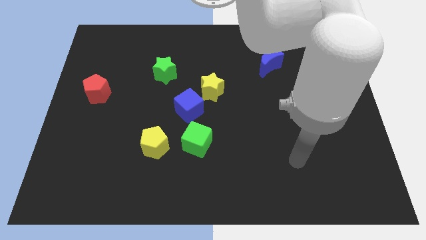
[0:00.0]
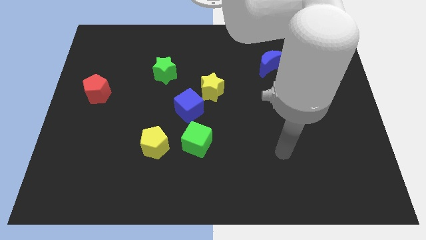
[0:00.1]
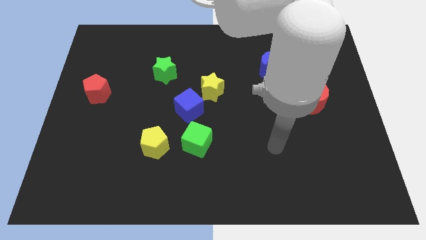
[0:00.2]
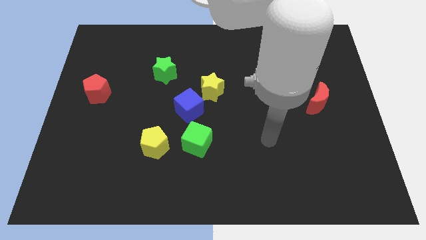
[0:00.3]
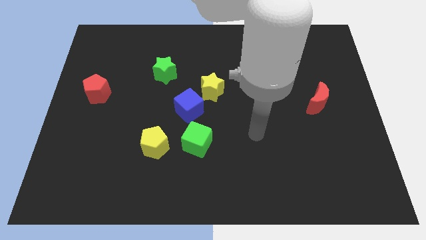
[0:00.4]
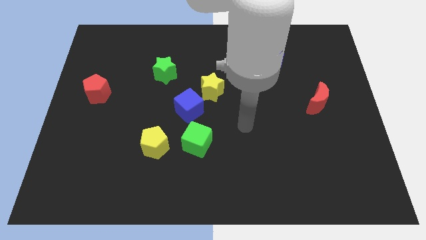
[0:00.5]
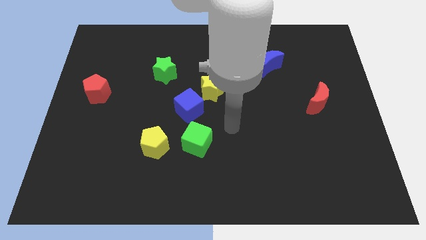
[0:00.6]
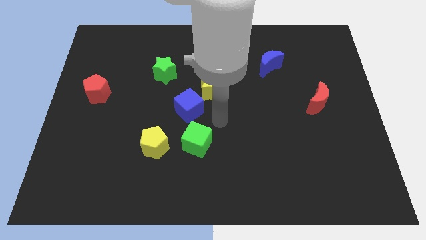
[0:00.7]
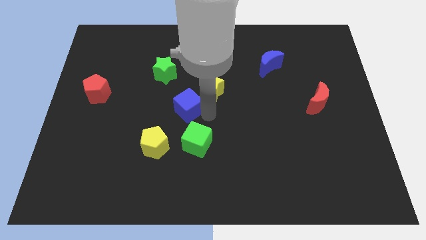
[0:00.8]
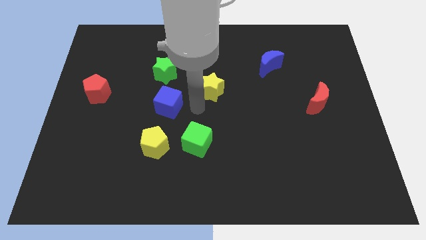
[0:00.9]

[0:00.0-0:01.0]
separate the yellow star from the blue cube

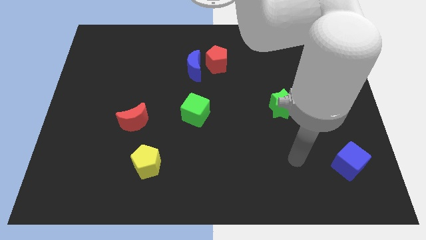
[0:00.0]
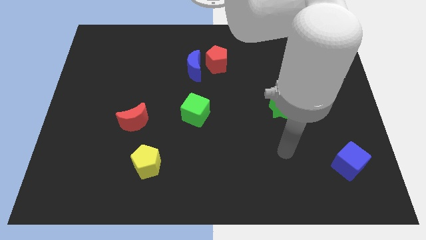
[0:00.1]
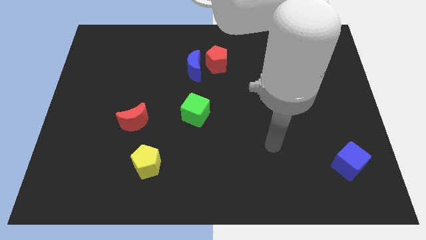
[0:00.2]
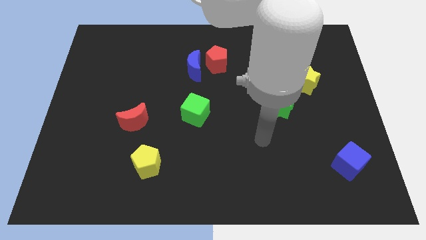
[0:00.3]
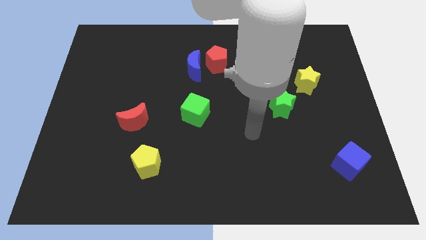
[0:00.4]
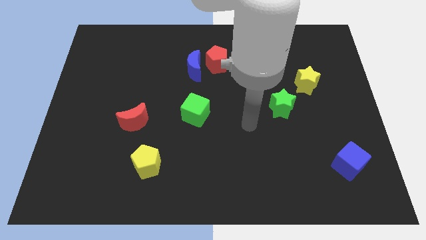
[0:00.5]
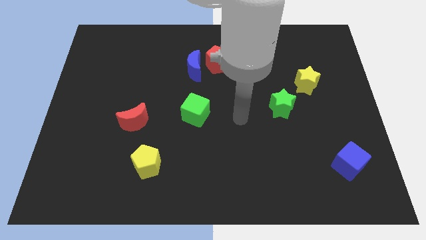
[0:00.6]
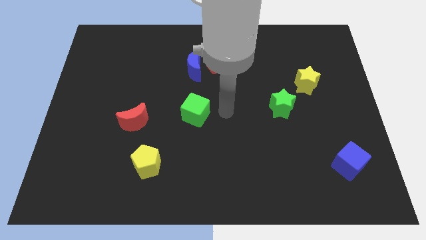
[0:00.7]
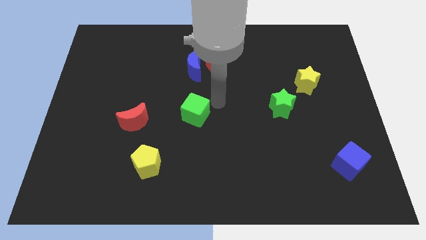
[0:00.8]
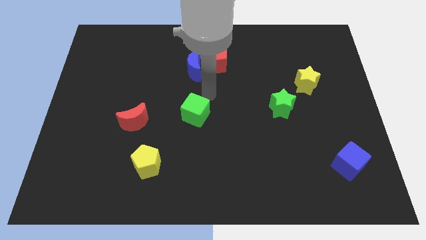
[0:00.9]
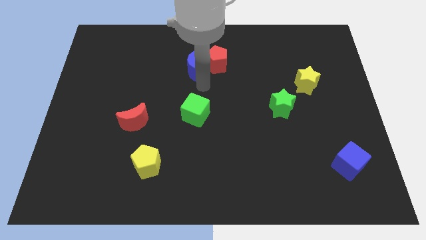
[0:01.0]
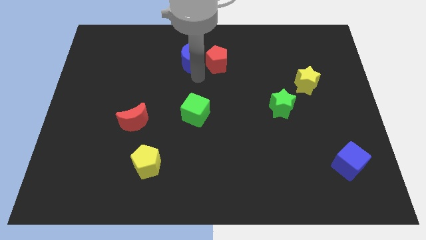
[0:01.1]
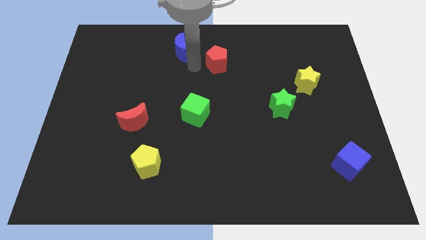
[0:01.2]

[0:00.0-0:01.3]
move the red pentagon away from the blue moon

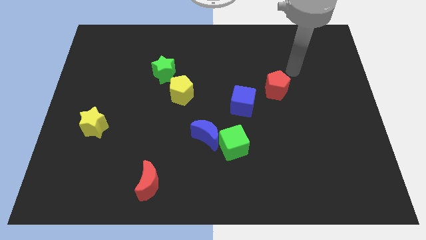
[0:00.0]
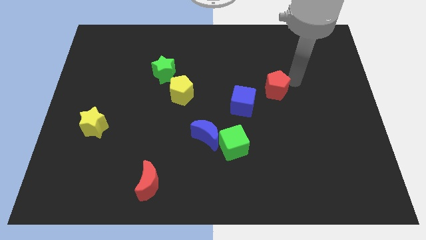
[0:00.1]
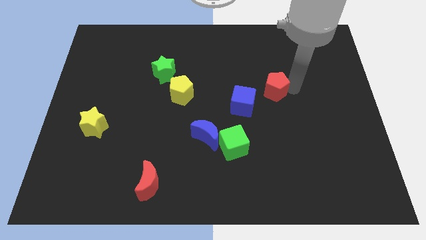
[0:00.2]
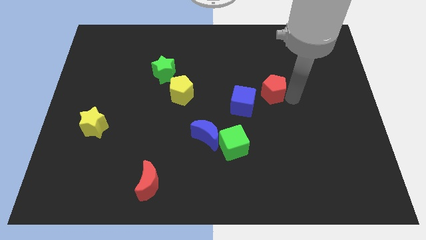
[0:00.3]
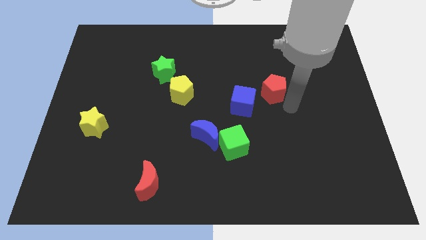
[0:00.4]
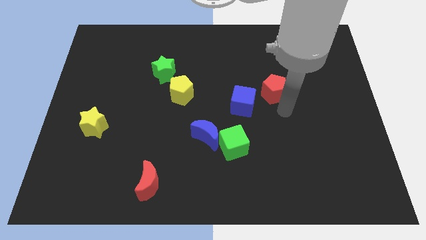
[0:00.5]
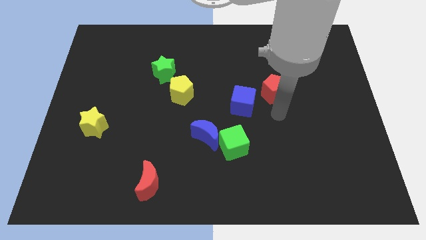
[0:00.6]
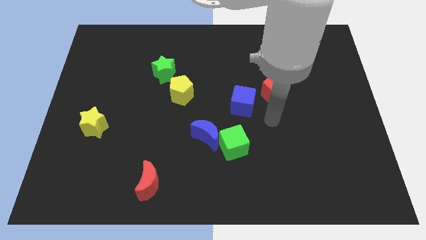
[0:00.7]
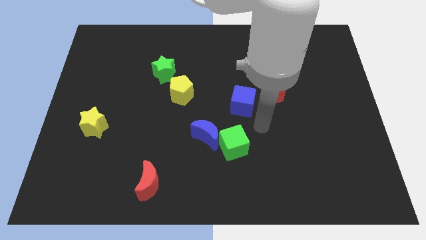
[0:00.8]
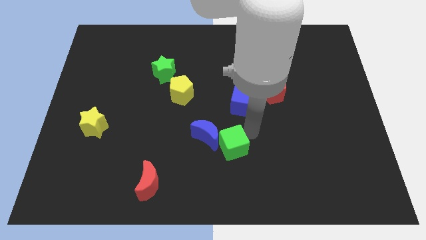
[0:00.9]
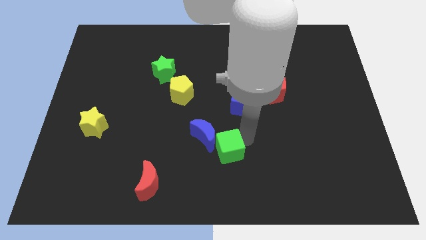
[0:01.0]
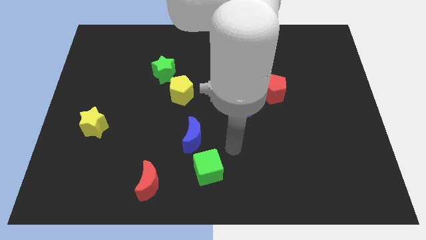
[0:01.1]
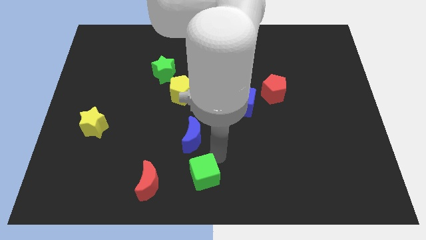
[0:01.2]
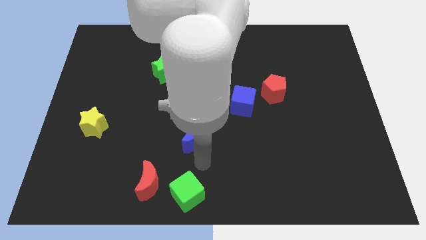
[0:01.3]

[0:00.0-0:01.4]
separate the blue moon from the green cube

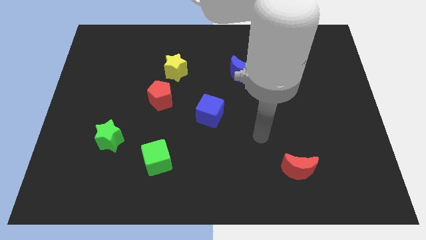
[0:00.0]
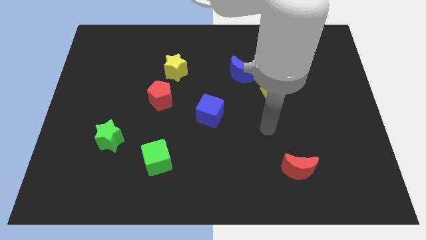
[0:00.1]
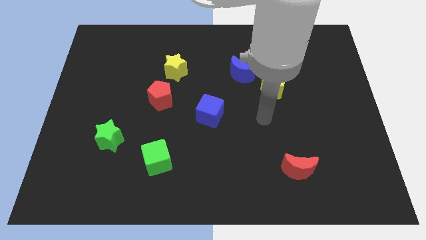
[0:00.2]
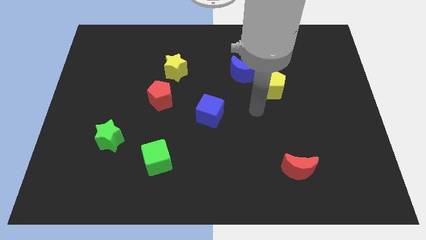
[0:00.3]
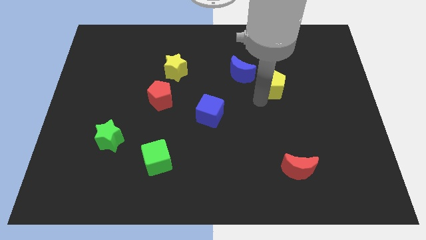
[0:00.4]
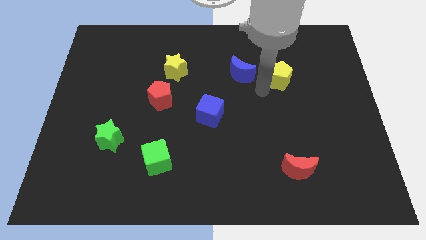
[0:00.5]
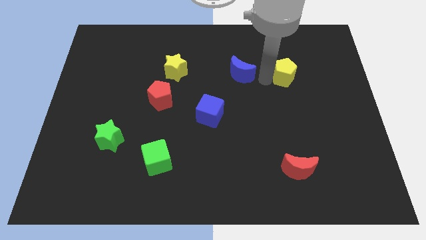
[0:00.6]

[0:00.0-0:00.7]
separate the blue moon from the yellow pentagon

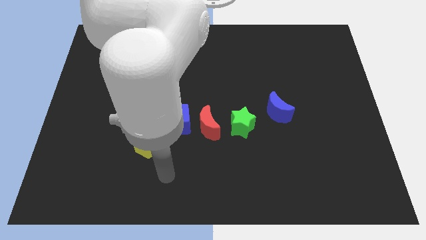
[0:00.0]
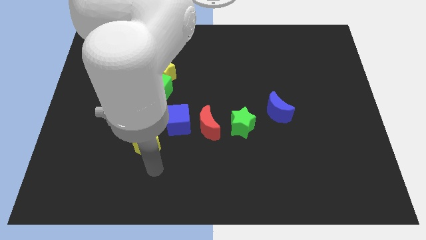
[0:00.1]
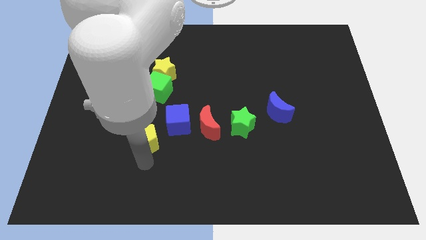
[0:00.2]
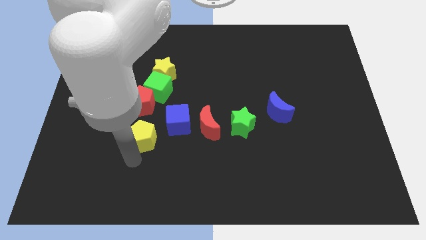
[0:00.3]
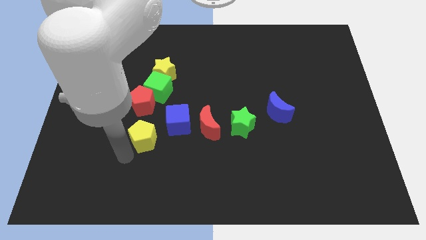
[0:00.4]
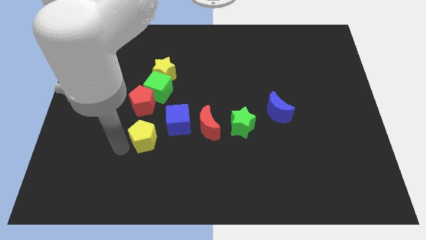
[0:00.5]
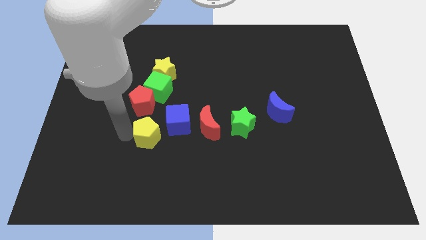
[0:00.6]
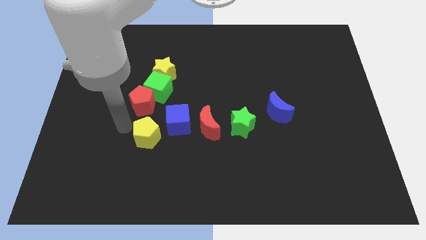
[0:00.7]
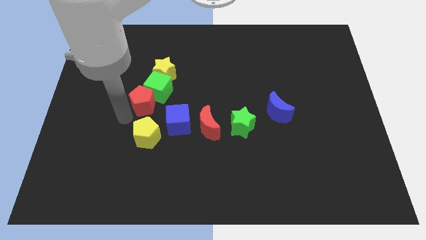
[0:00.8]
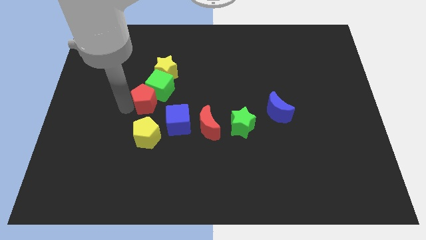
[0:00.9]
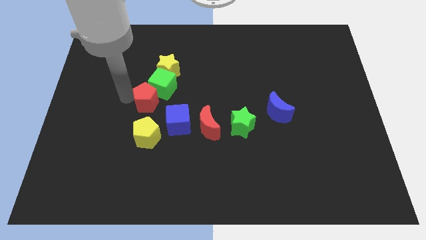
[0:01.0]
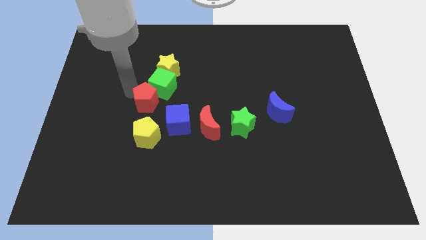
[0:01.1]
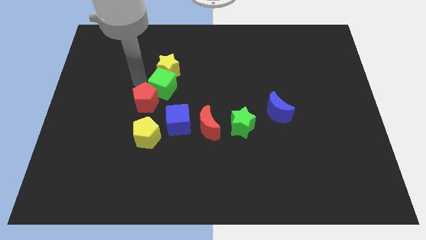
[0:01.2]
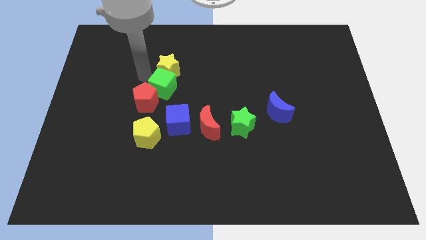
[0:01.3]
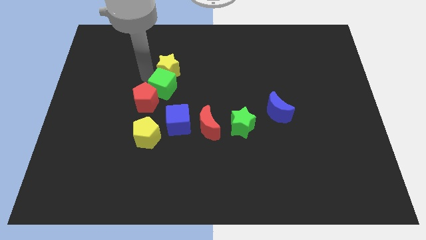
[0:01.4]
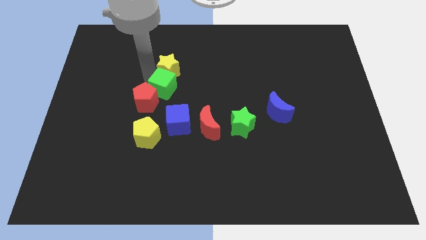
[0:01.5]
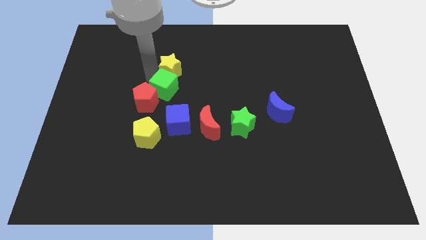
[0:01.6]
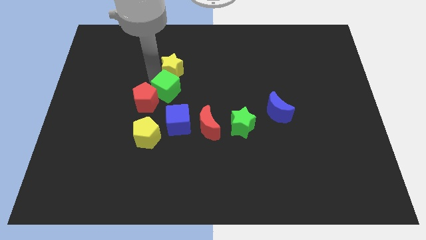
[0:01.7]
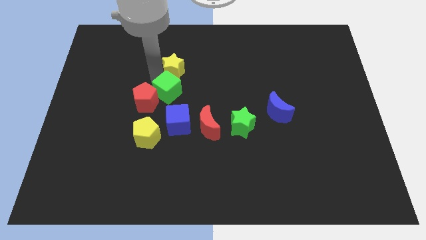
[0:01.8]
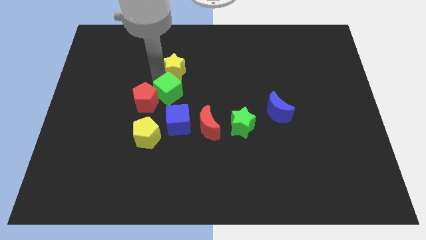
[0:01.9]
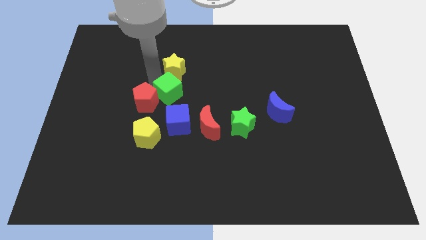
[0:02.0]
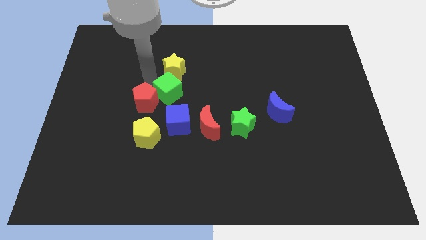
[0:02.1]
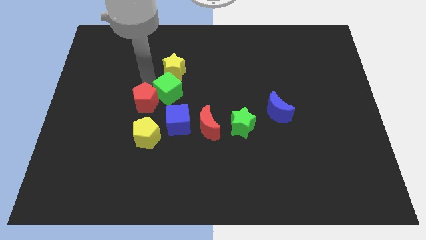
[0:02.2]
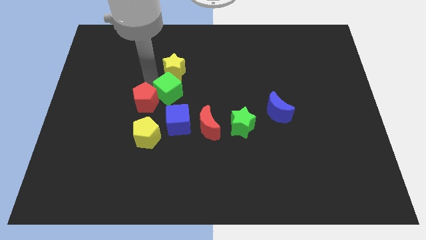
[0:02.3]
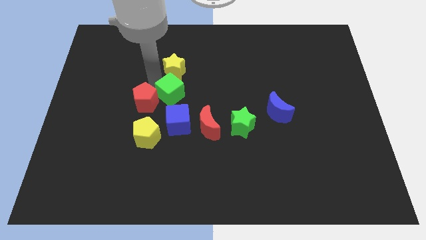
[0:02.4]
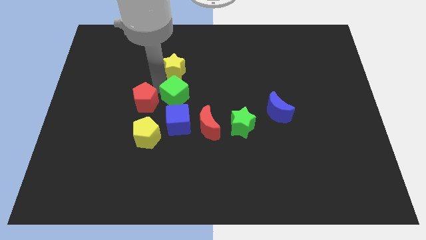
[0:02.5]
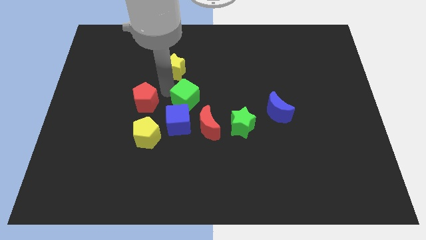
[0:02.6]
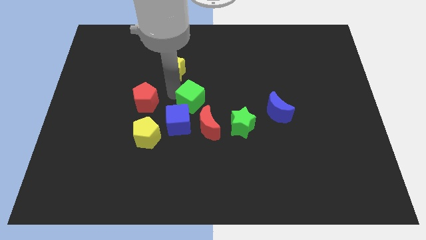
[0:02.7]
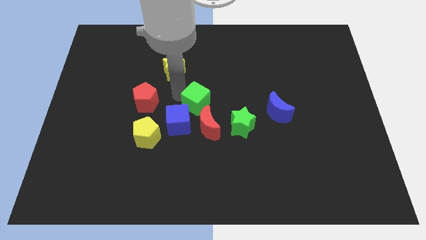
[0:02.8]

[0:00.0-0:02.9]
move the green cube away from the red pentagon and yellow star

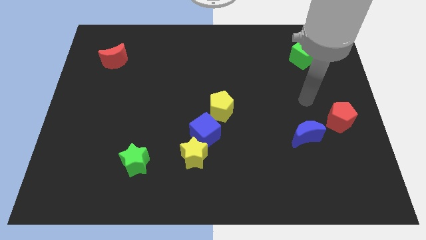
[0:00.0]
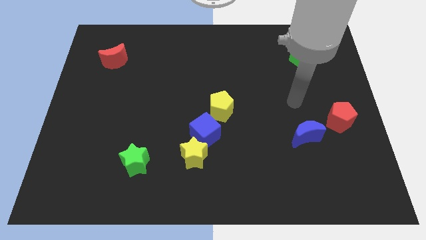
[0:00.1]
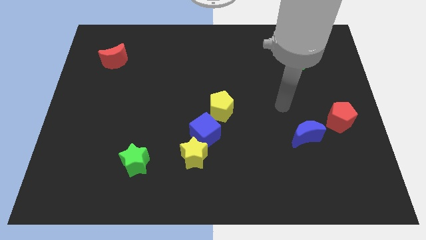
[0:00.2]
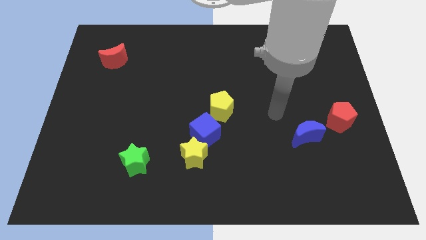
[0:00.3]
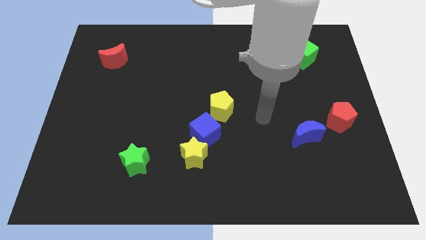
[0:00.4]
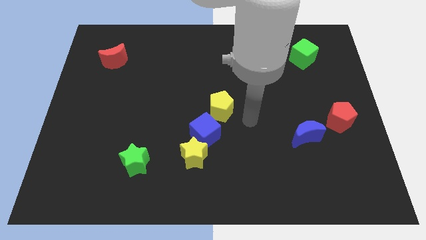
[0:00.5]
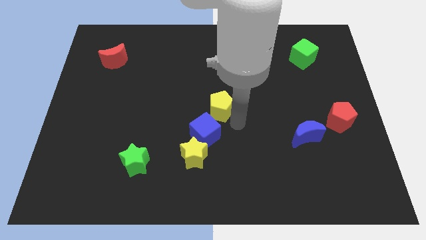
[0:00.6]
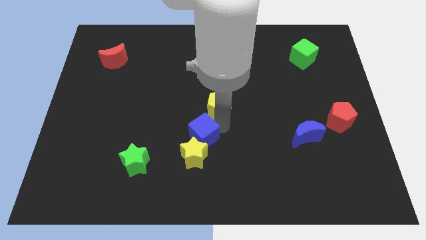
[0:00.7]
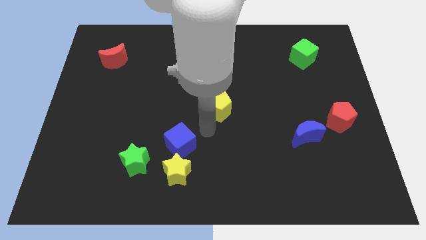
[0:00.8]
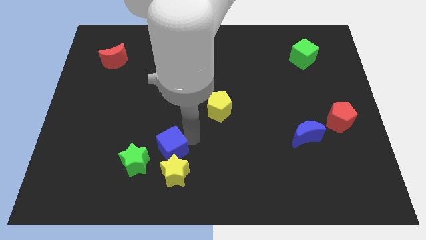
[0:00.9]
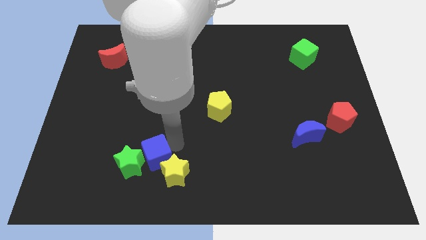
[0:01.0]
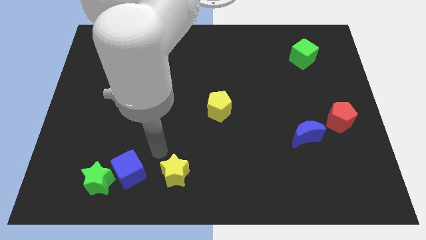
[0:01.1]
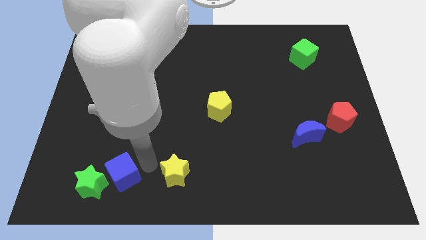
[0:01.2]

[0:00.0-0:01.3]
pull the yellow star apart from the blue cube

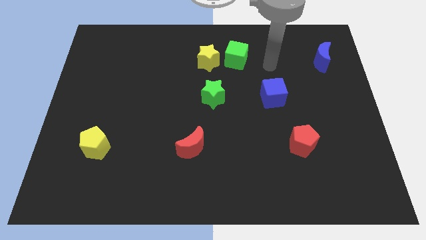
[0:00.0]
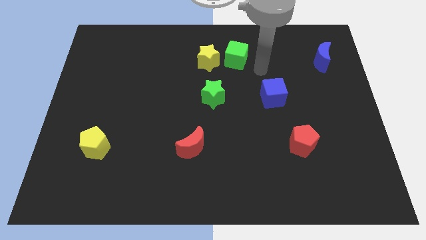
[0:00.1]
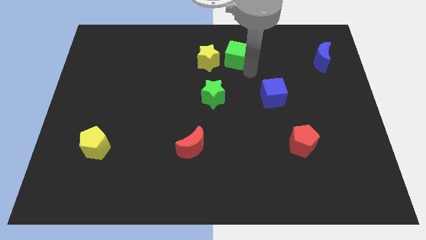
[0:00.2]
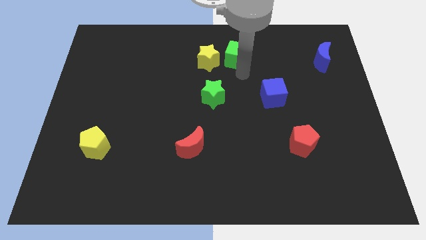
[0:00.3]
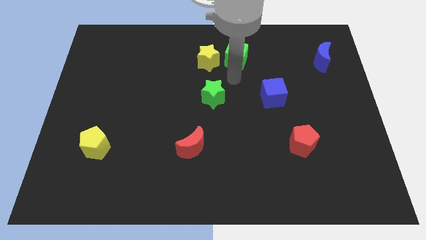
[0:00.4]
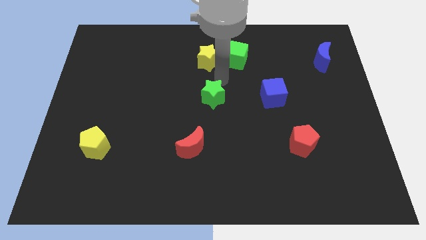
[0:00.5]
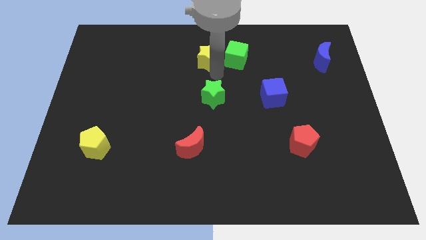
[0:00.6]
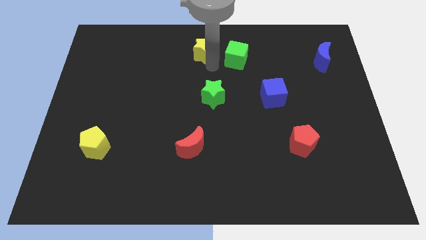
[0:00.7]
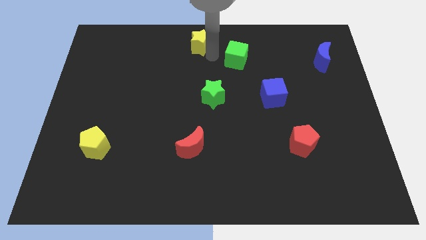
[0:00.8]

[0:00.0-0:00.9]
move the green cube away from the yellow star
